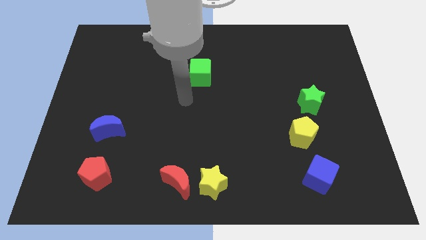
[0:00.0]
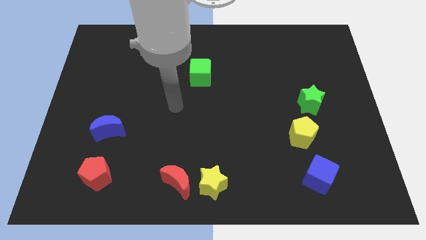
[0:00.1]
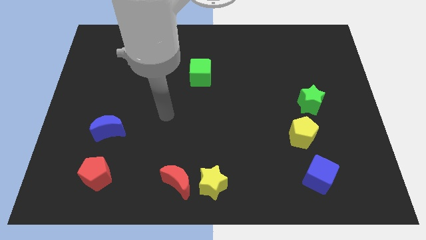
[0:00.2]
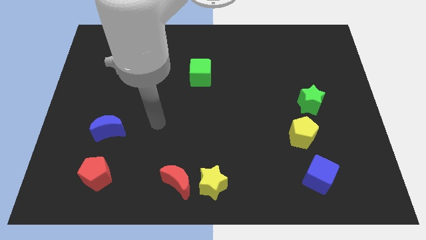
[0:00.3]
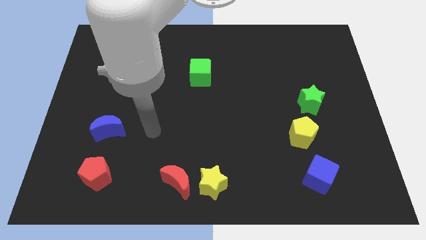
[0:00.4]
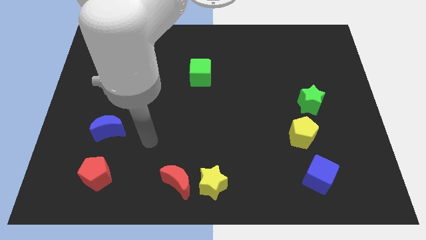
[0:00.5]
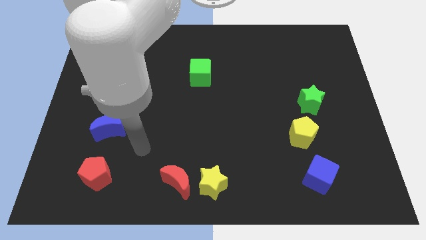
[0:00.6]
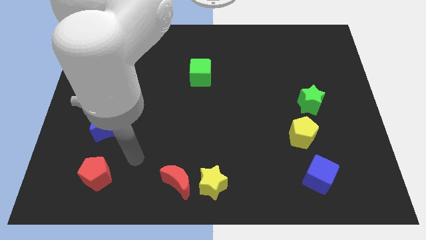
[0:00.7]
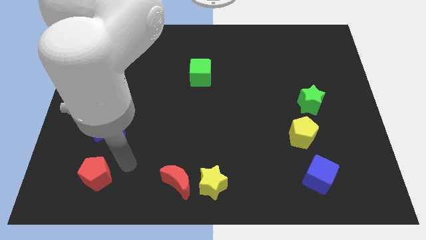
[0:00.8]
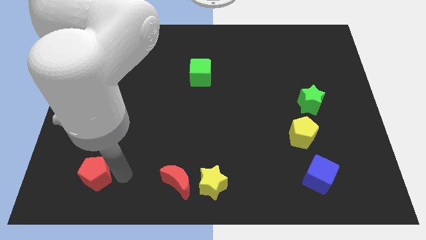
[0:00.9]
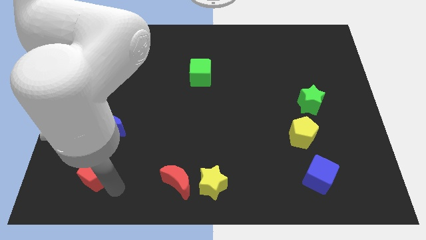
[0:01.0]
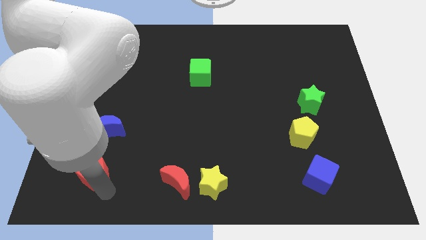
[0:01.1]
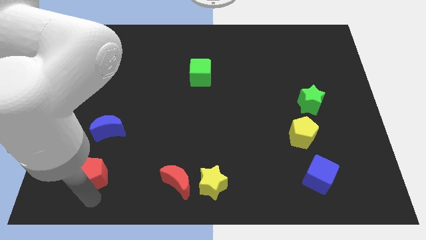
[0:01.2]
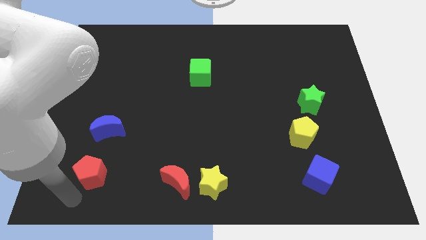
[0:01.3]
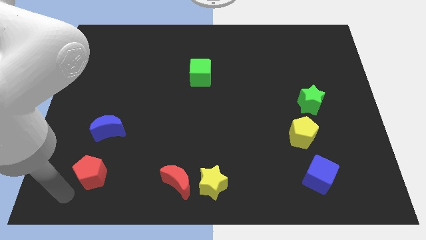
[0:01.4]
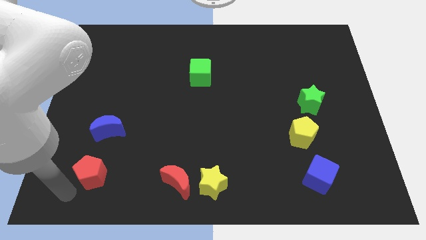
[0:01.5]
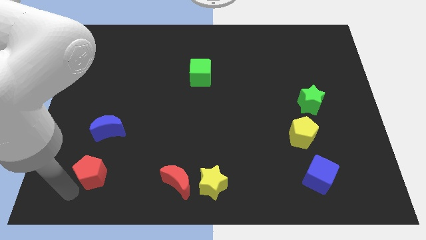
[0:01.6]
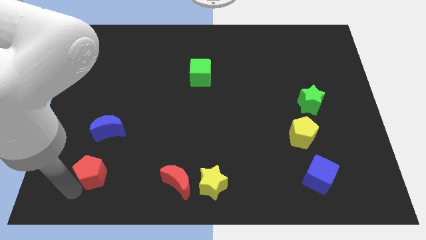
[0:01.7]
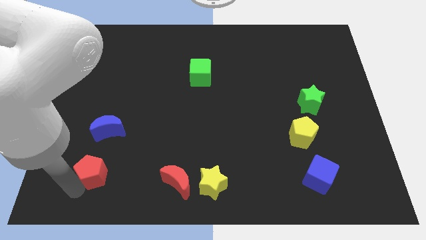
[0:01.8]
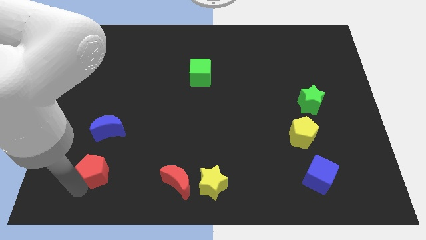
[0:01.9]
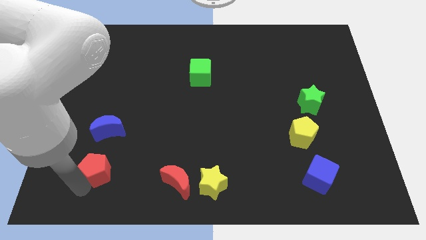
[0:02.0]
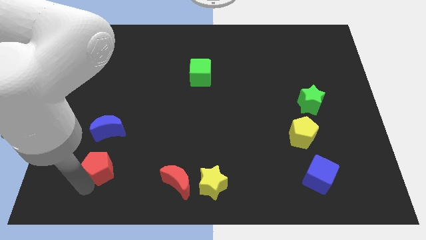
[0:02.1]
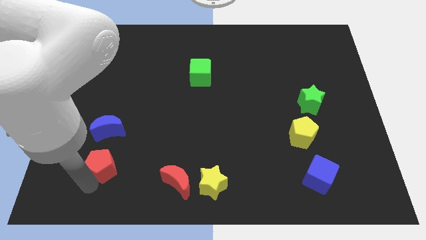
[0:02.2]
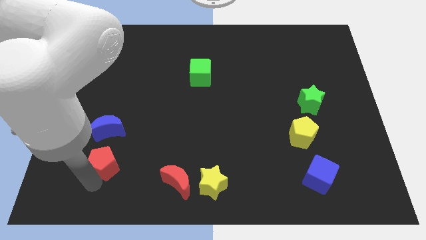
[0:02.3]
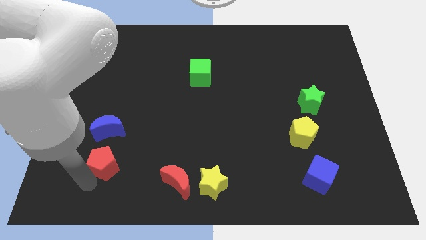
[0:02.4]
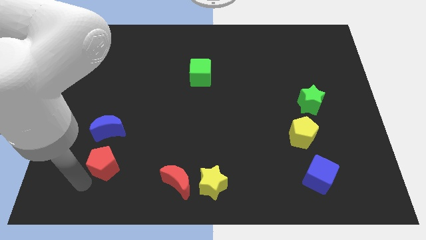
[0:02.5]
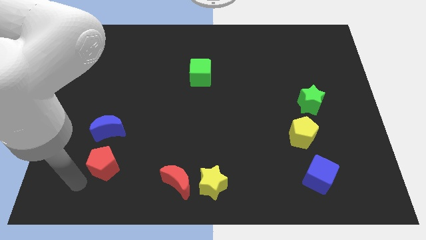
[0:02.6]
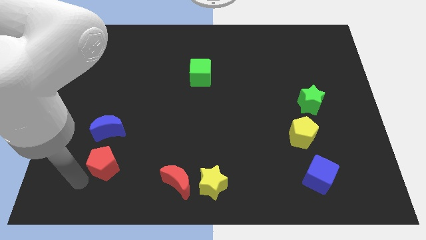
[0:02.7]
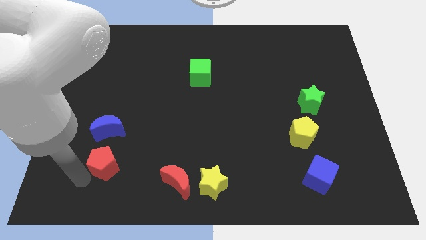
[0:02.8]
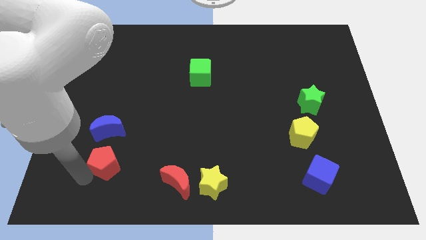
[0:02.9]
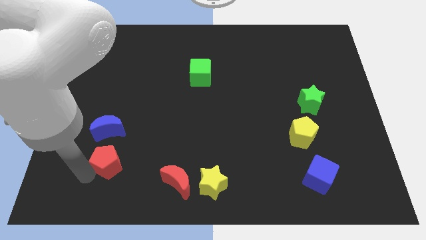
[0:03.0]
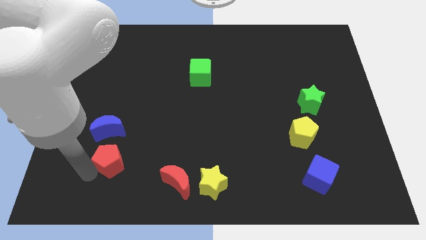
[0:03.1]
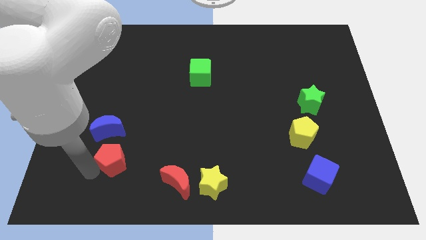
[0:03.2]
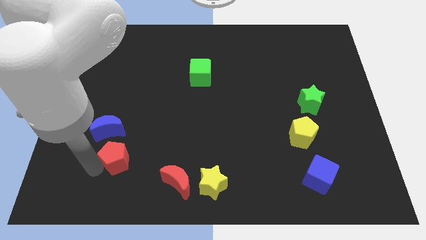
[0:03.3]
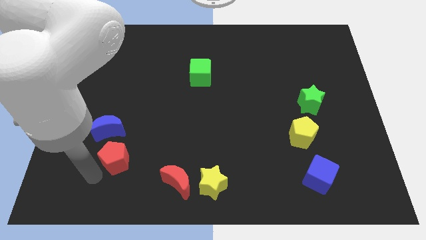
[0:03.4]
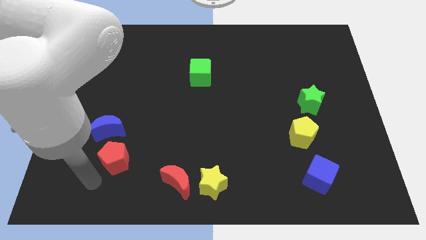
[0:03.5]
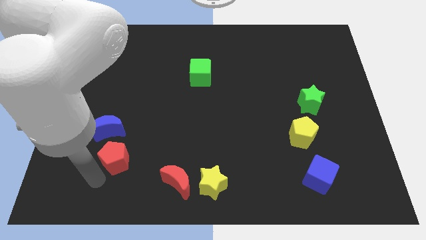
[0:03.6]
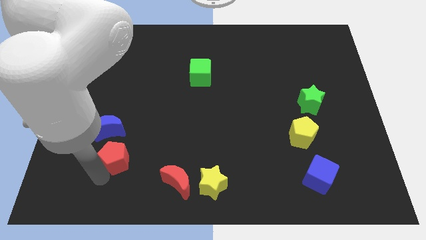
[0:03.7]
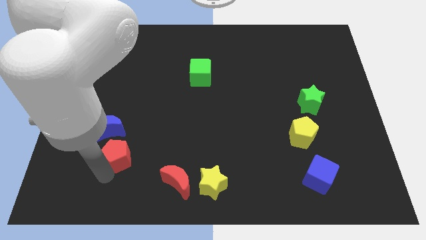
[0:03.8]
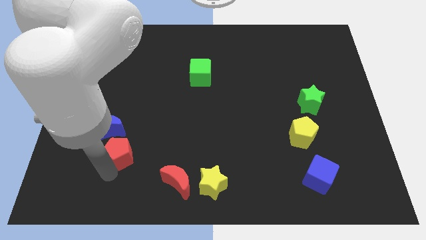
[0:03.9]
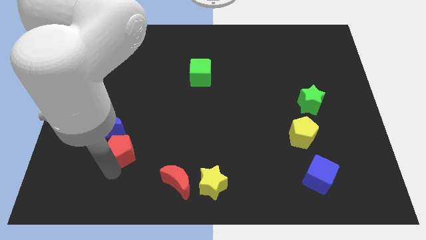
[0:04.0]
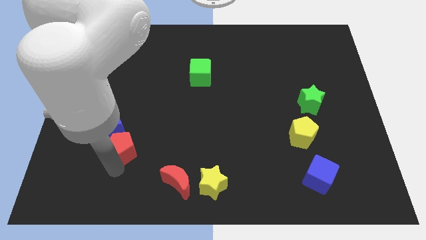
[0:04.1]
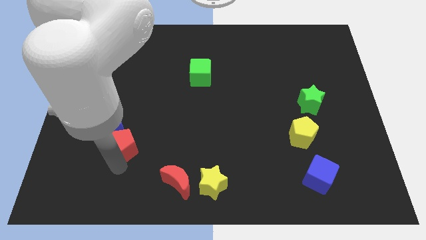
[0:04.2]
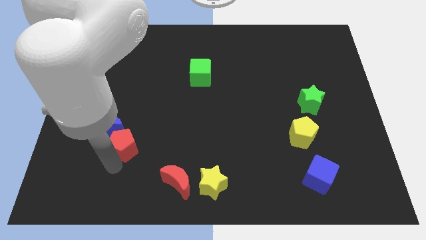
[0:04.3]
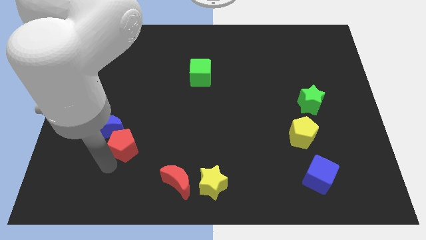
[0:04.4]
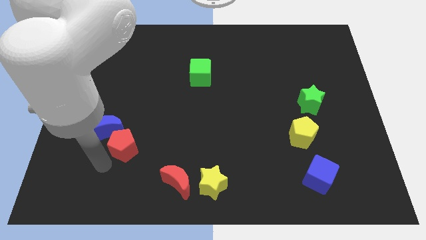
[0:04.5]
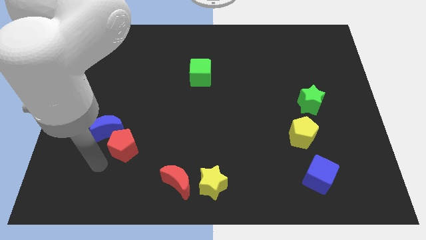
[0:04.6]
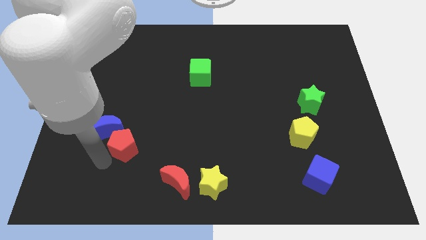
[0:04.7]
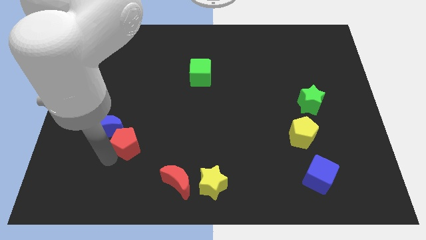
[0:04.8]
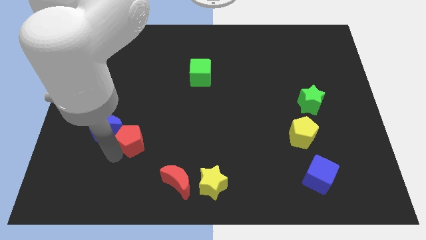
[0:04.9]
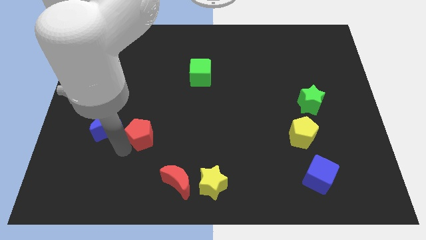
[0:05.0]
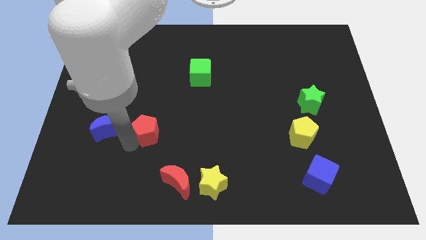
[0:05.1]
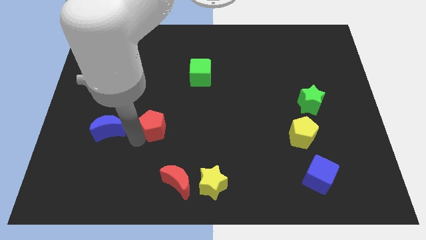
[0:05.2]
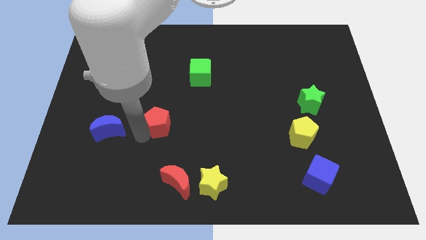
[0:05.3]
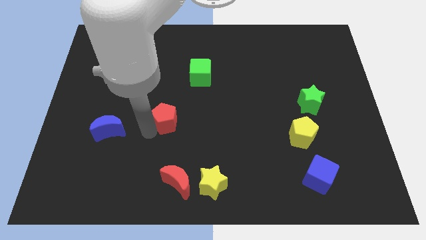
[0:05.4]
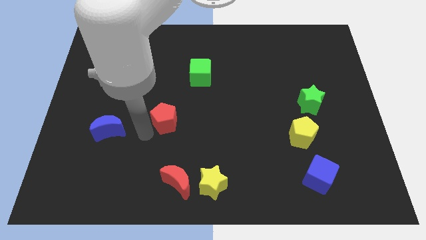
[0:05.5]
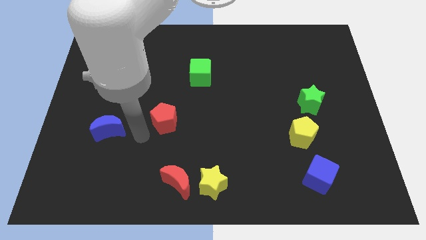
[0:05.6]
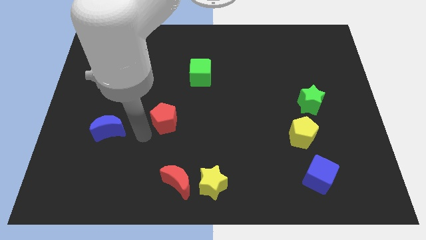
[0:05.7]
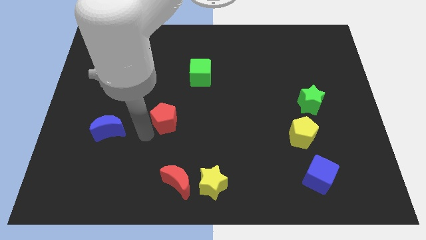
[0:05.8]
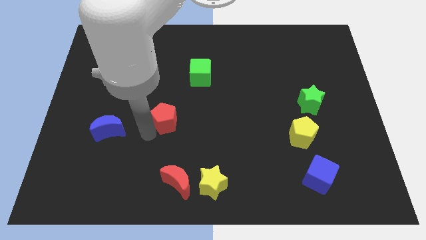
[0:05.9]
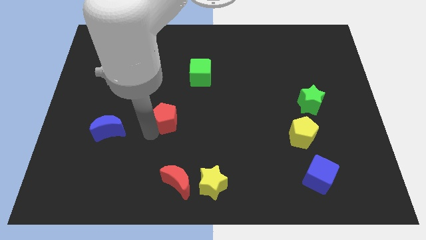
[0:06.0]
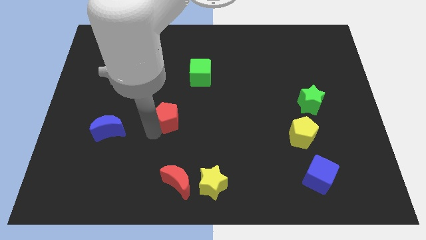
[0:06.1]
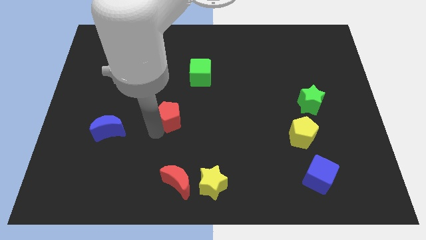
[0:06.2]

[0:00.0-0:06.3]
push the red pentagon up and right diagonally

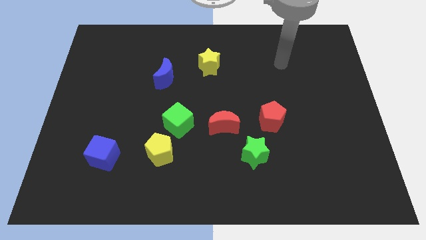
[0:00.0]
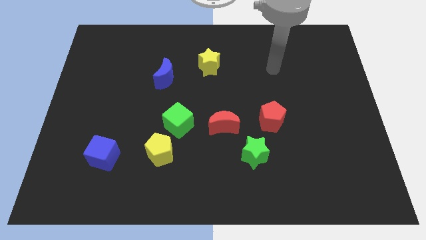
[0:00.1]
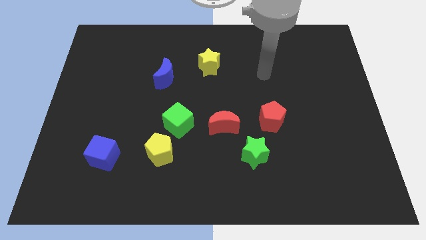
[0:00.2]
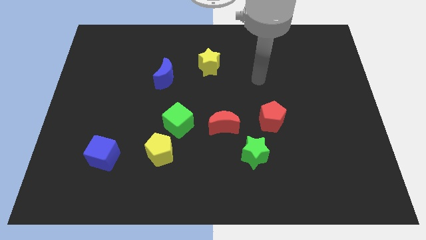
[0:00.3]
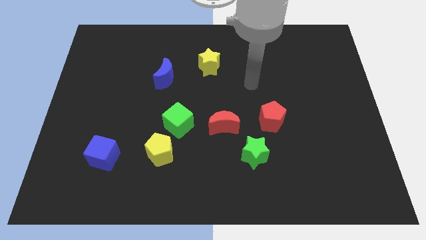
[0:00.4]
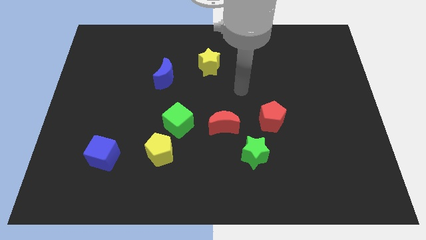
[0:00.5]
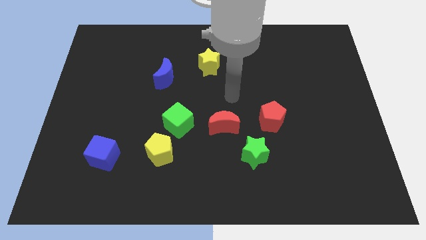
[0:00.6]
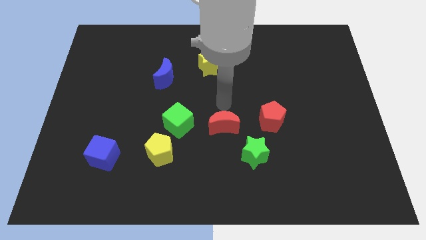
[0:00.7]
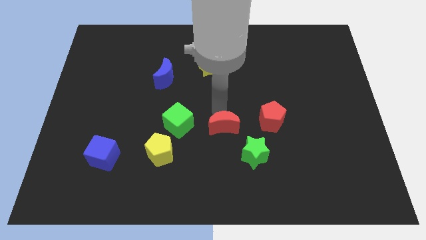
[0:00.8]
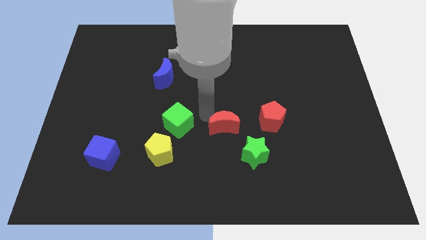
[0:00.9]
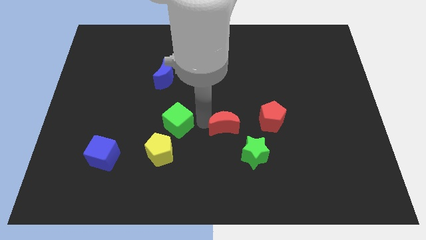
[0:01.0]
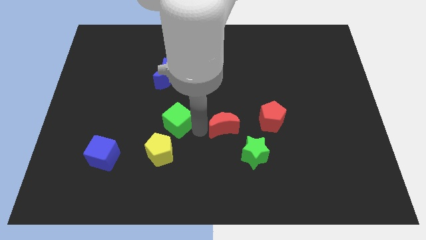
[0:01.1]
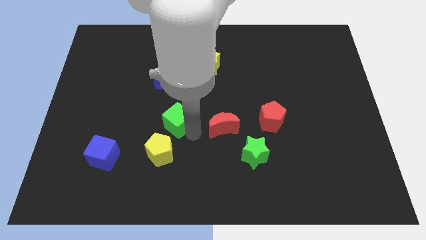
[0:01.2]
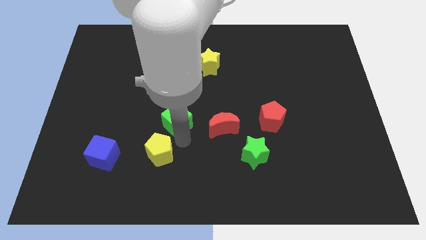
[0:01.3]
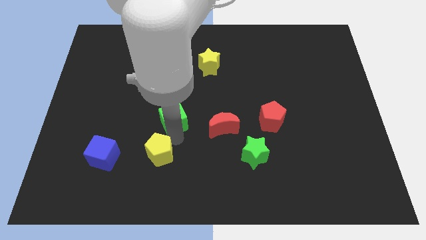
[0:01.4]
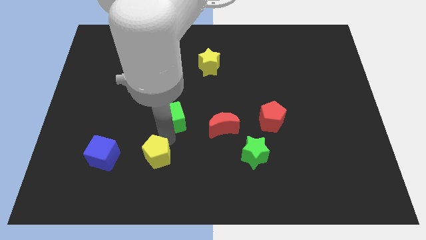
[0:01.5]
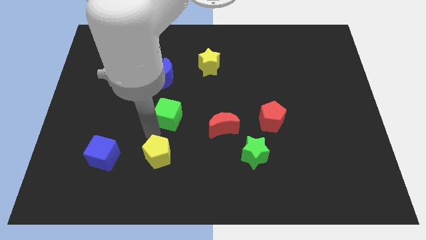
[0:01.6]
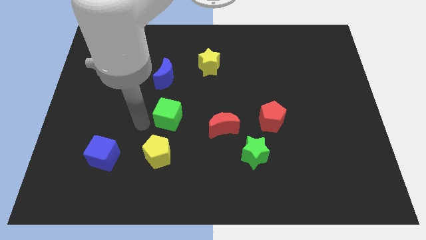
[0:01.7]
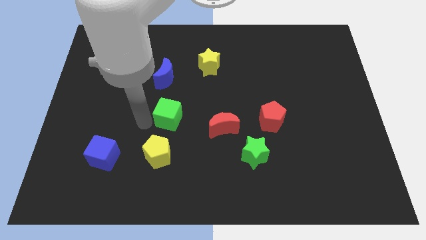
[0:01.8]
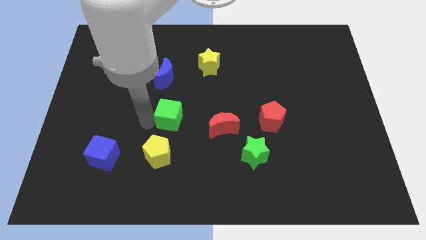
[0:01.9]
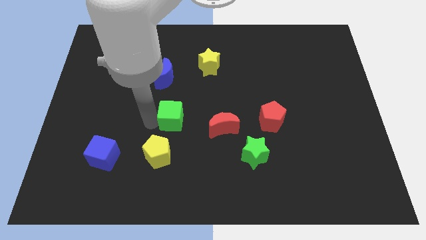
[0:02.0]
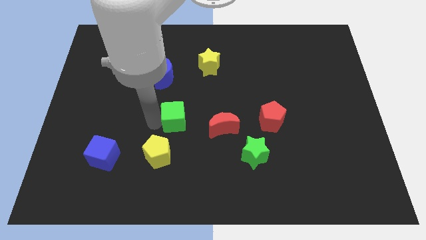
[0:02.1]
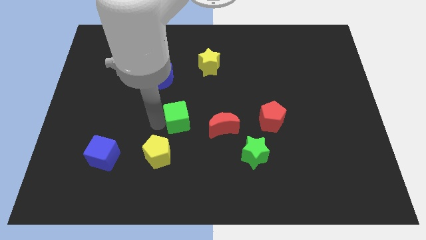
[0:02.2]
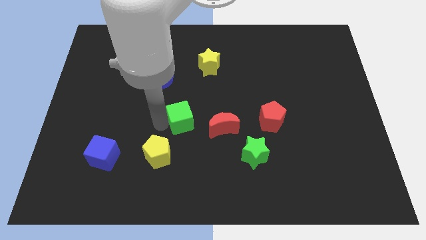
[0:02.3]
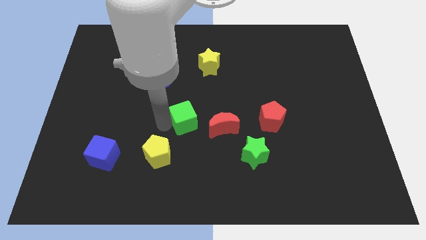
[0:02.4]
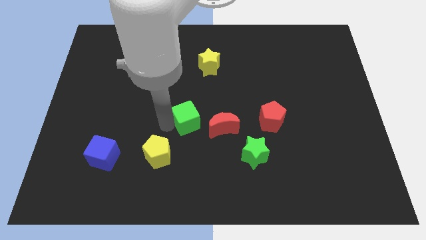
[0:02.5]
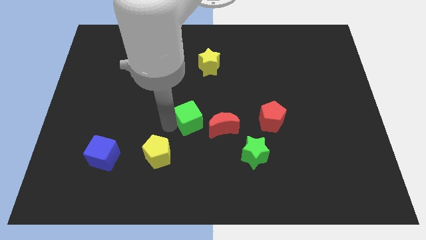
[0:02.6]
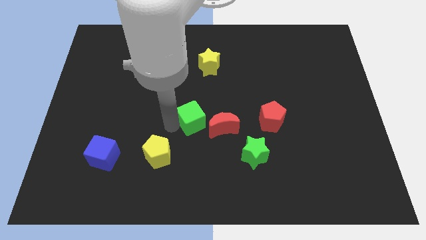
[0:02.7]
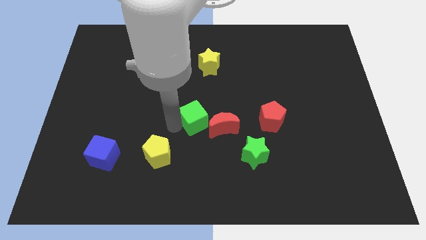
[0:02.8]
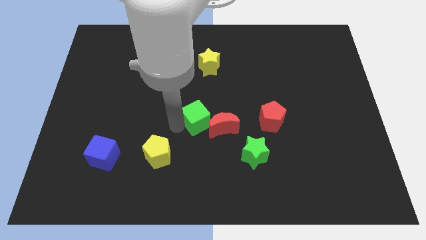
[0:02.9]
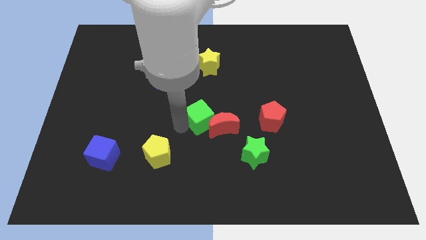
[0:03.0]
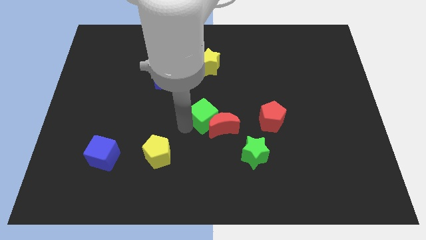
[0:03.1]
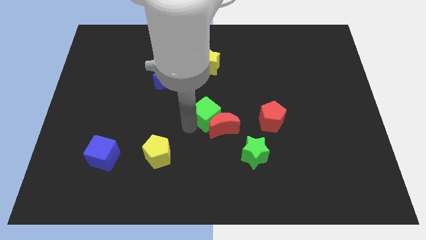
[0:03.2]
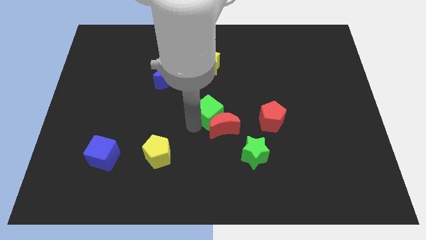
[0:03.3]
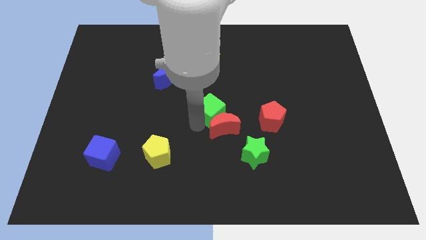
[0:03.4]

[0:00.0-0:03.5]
slightly move the green cube diagonally up and right
